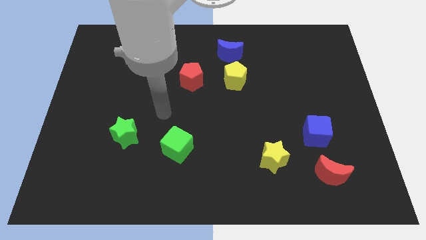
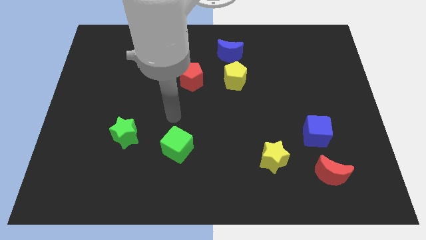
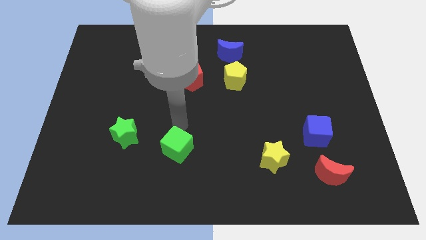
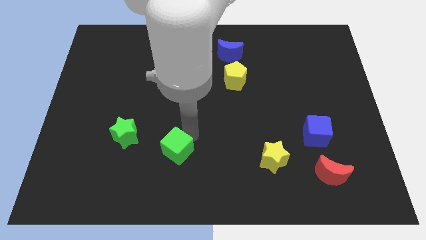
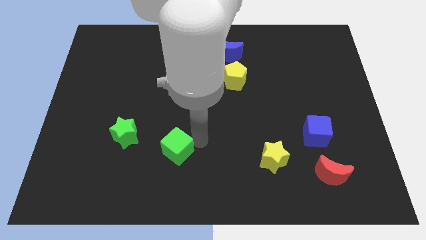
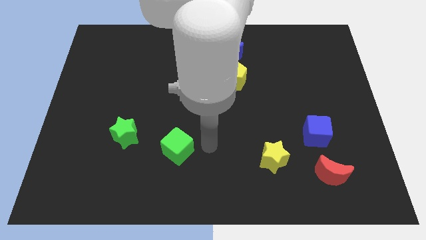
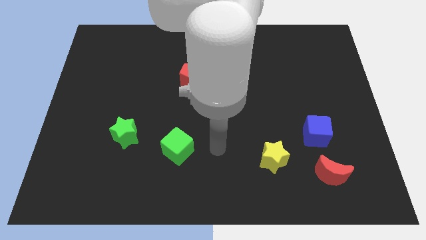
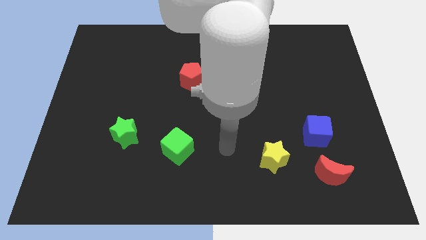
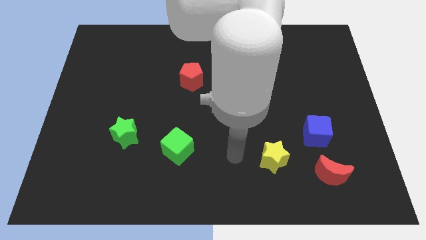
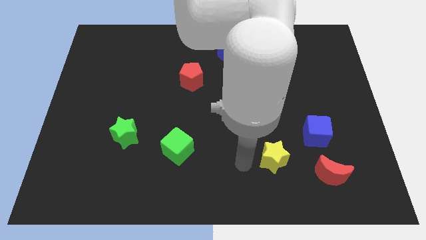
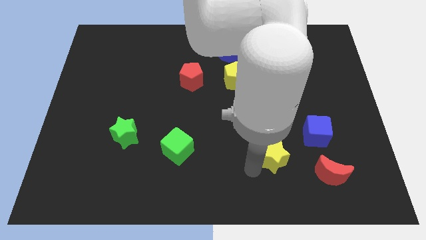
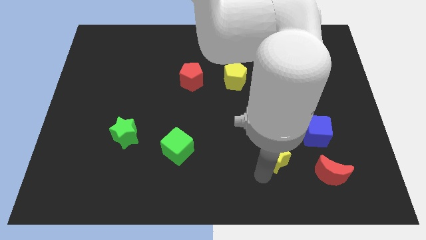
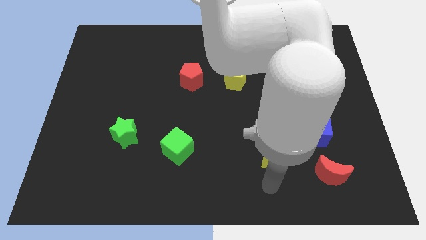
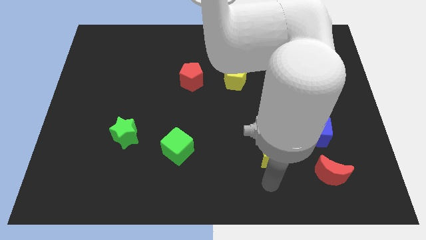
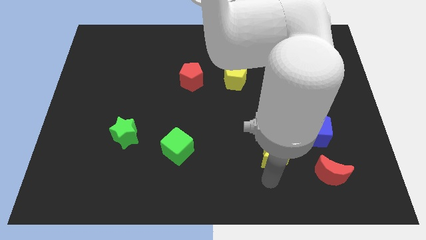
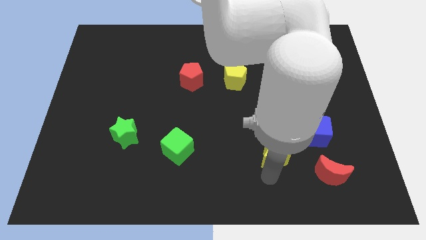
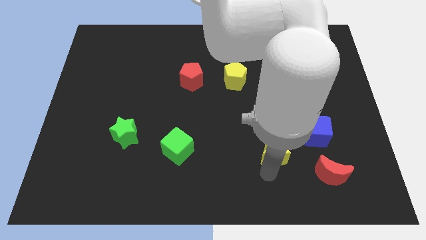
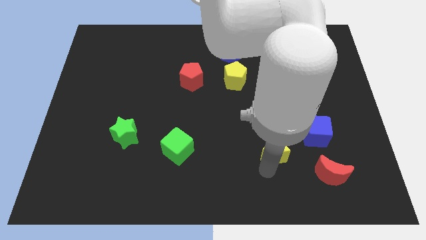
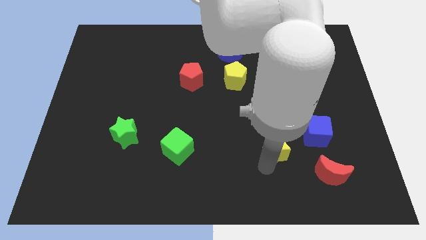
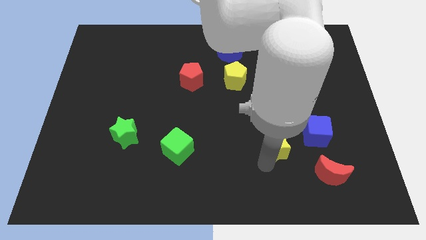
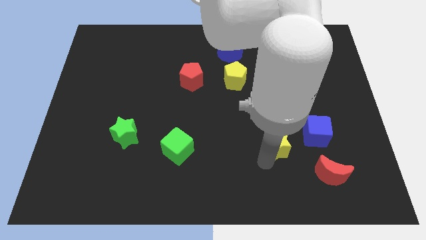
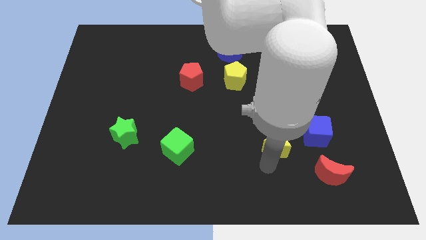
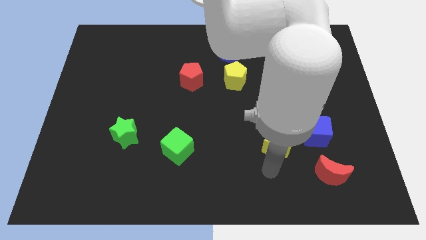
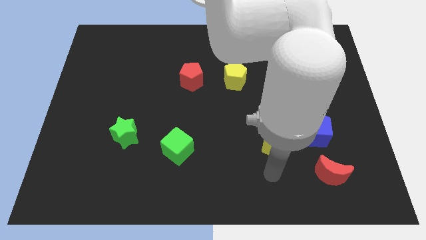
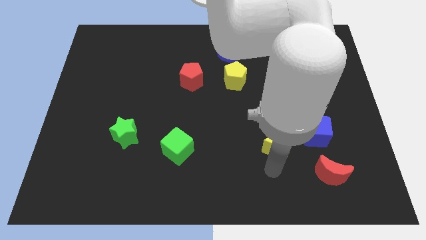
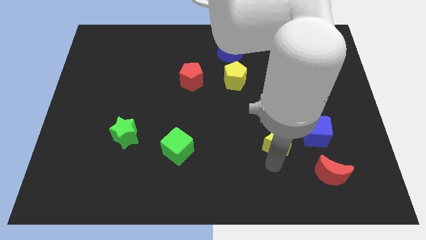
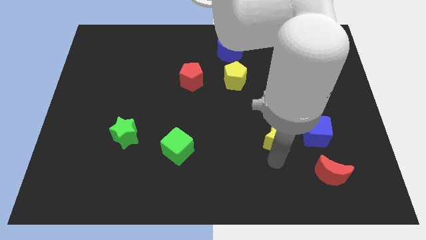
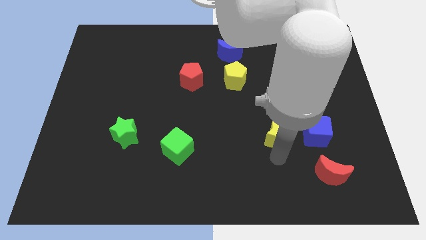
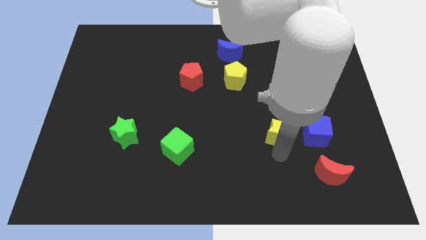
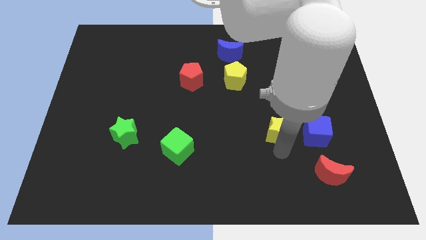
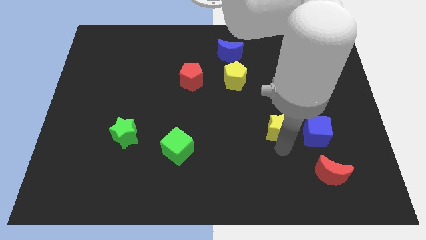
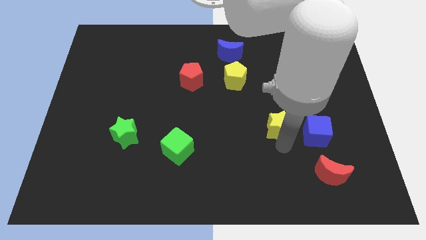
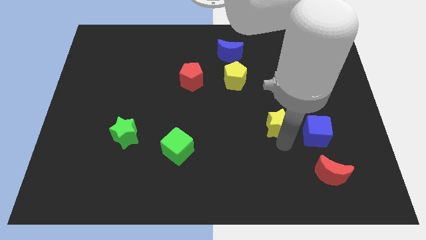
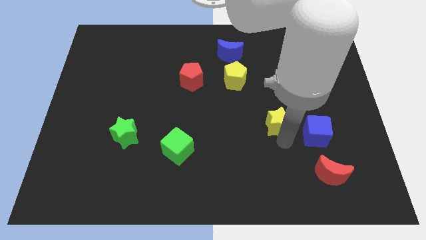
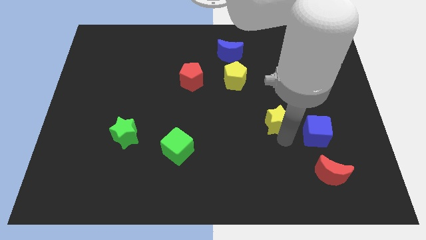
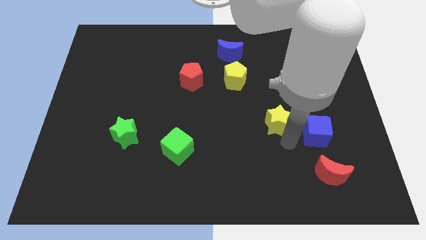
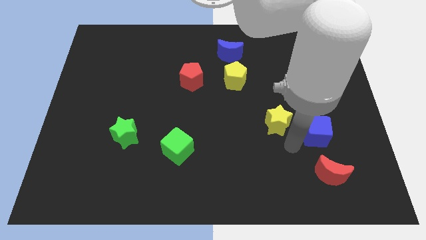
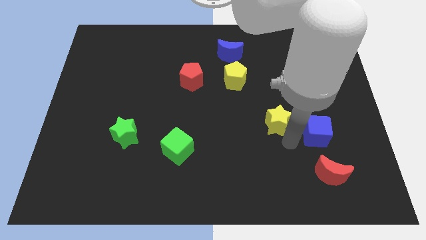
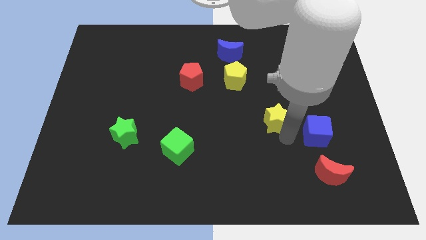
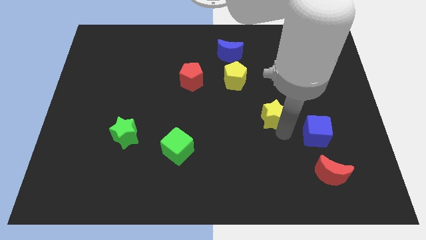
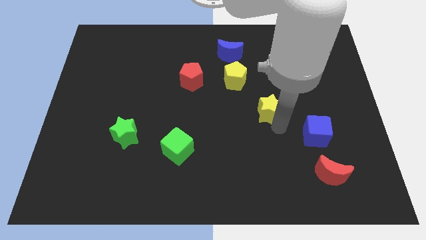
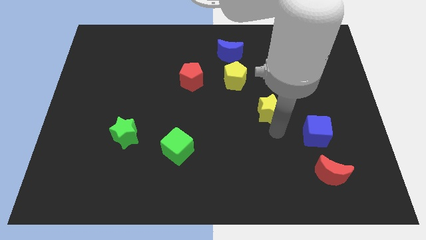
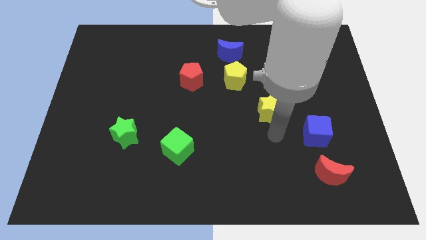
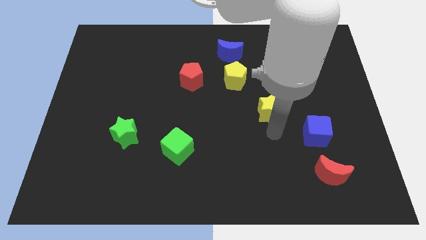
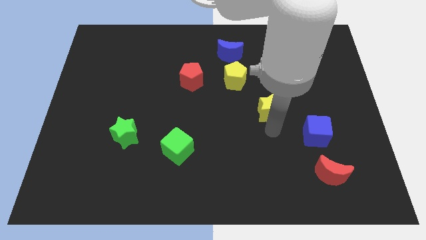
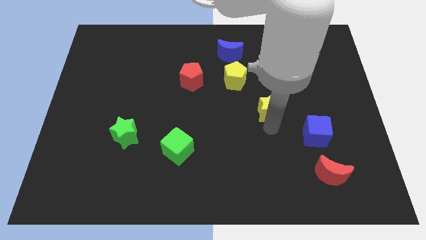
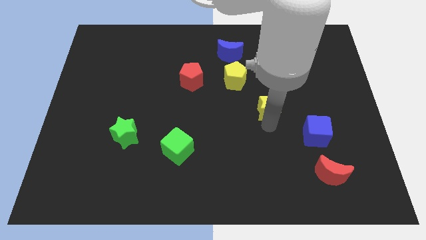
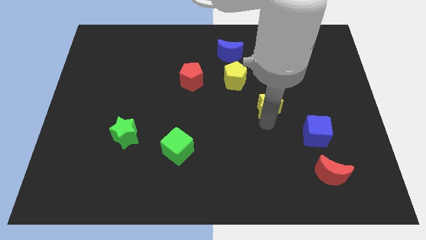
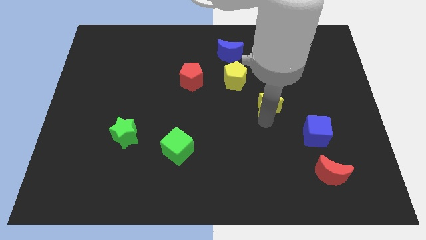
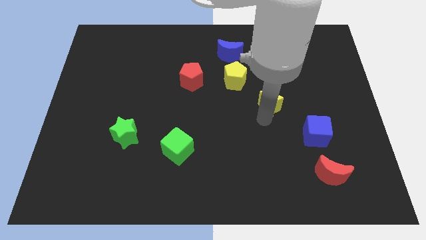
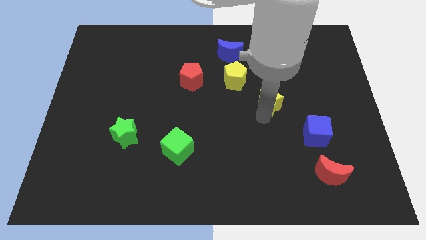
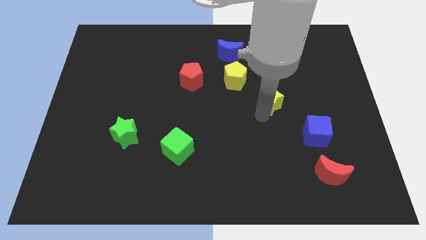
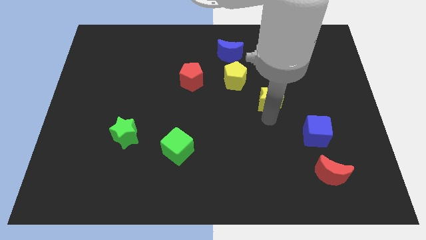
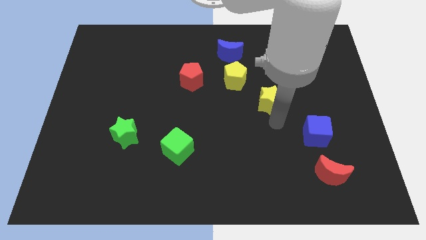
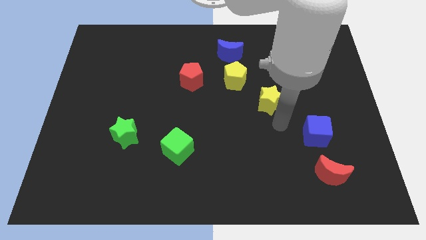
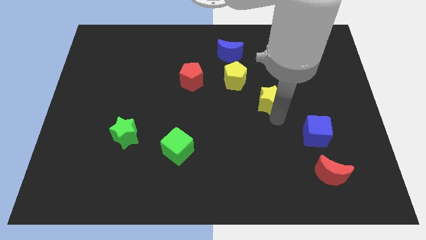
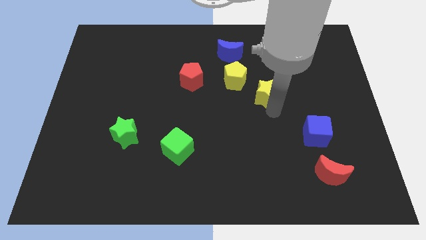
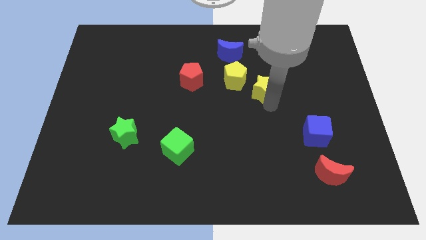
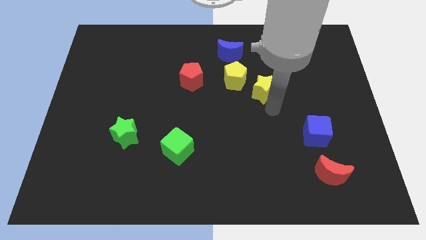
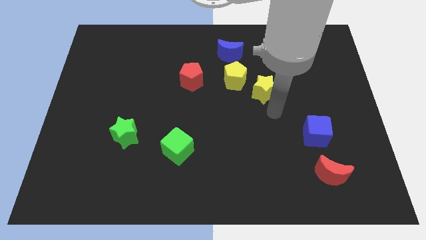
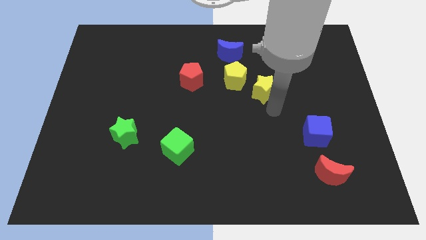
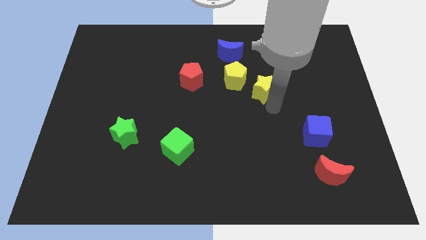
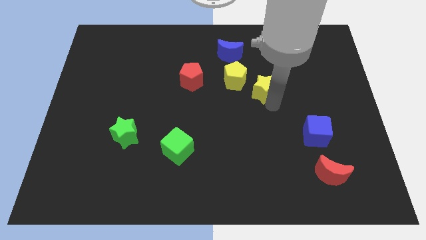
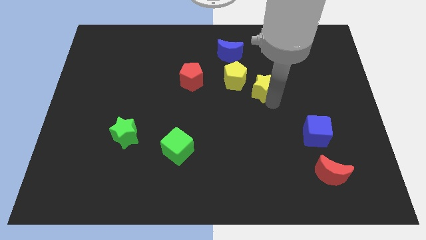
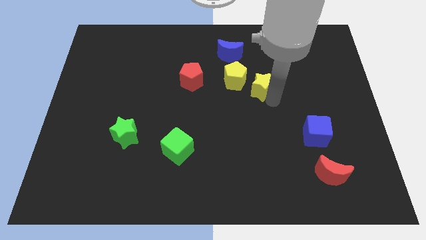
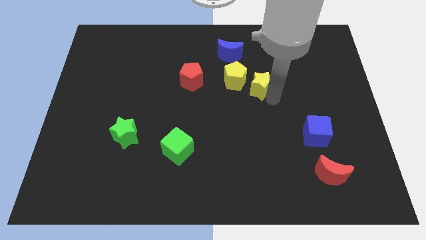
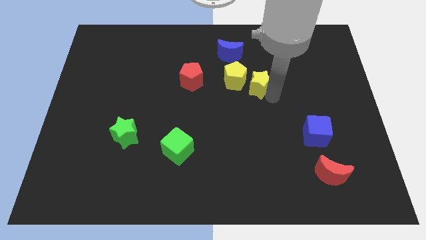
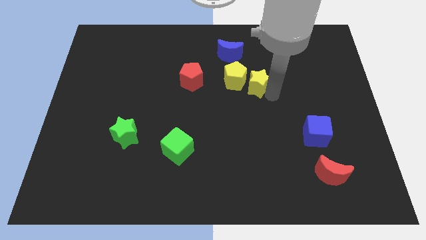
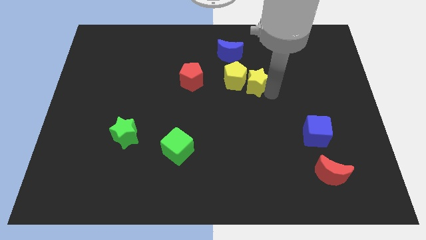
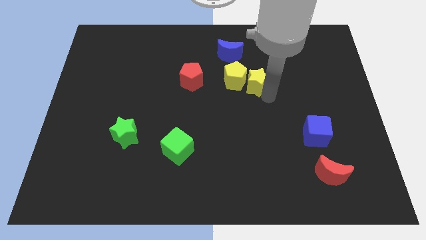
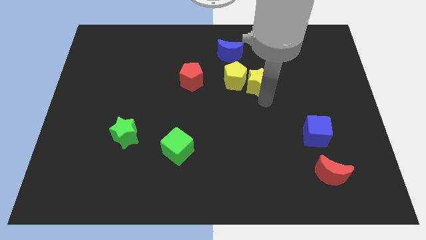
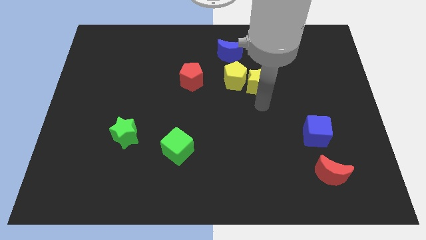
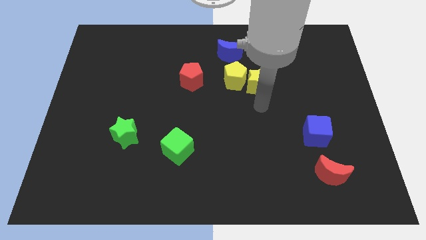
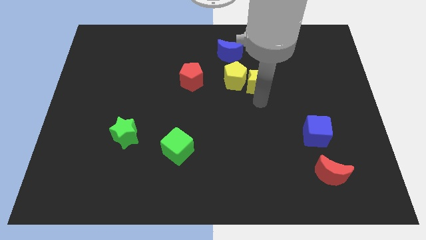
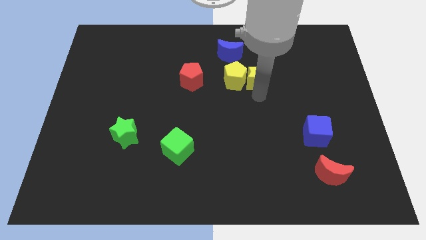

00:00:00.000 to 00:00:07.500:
put the yellow star to the top right of the yellow pentagon
